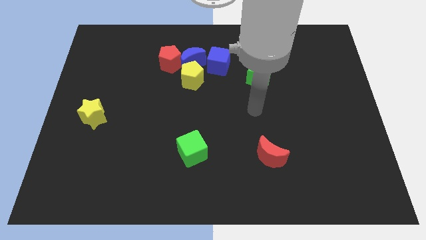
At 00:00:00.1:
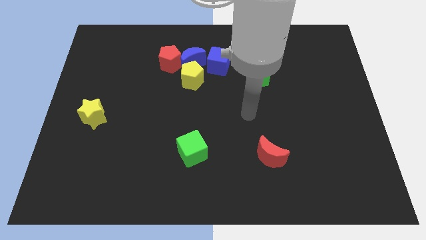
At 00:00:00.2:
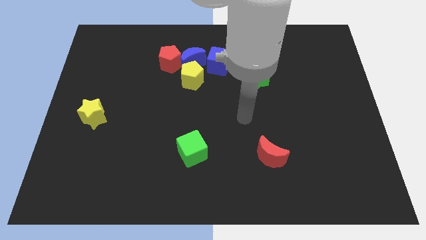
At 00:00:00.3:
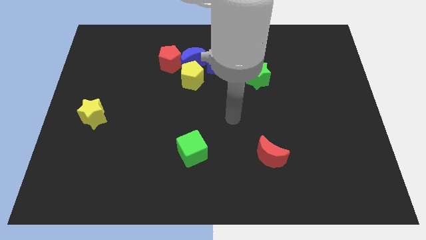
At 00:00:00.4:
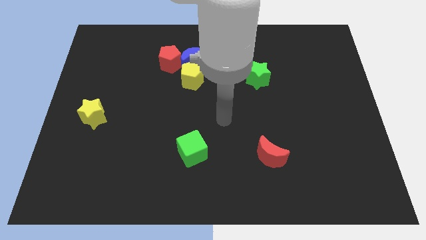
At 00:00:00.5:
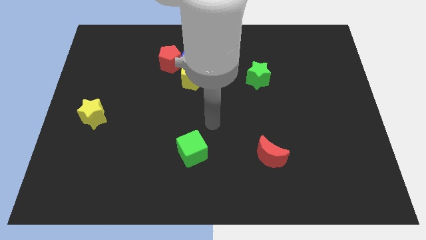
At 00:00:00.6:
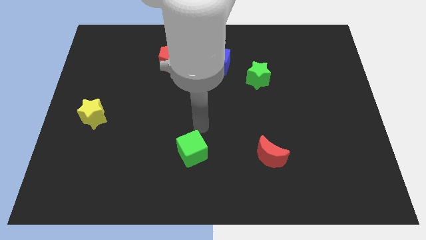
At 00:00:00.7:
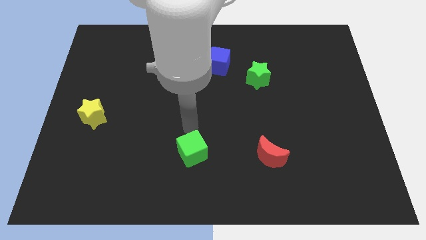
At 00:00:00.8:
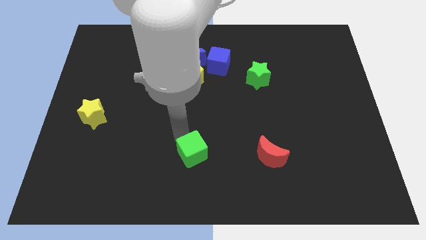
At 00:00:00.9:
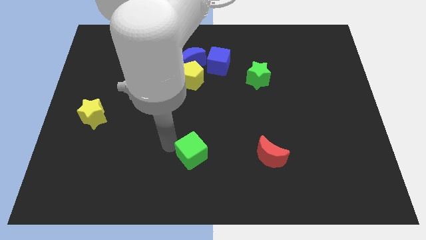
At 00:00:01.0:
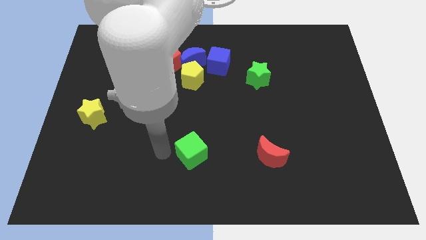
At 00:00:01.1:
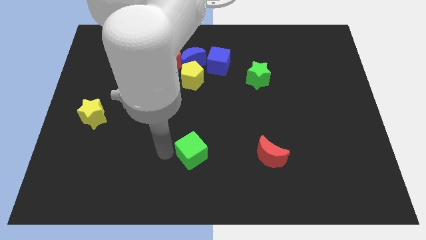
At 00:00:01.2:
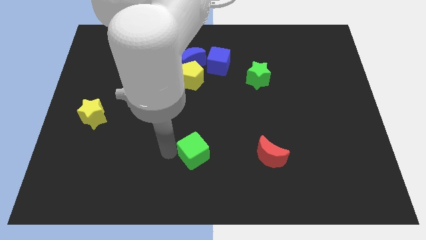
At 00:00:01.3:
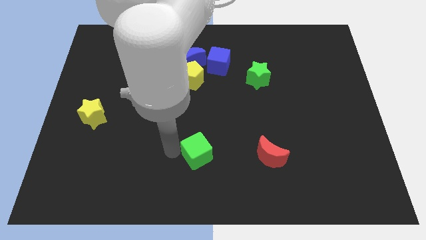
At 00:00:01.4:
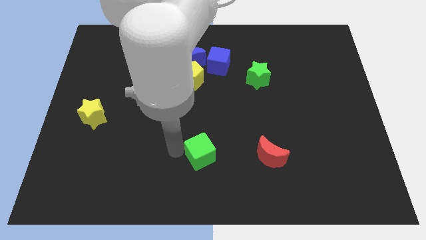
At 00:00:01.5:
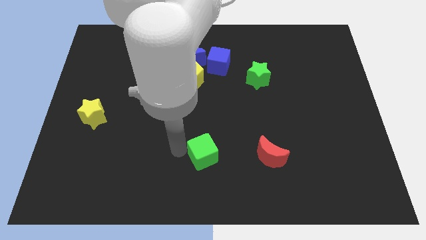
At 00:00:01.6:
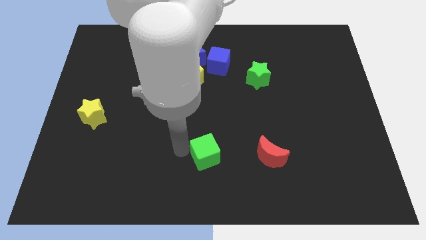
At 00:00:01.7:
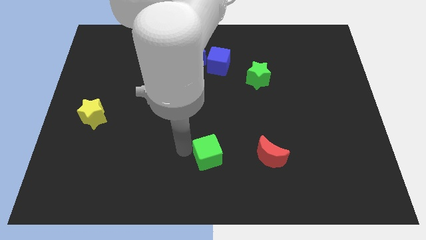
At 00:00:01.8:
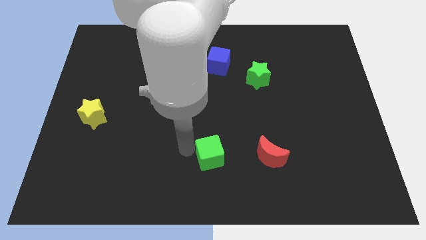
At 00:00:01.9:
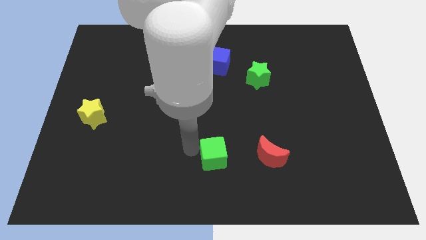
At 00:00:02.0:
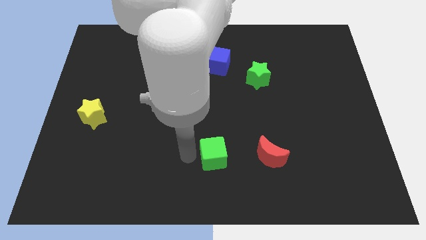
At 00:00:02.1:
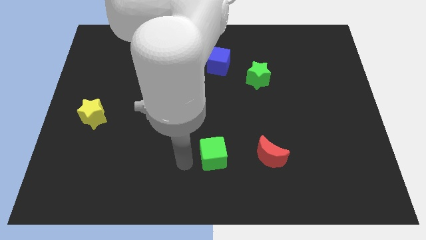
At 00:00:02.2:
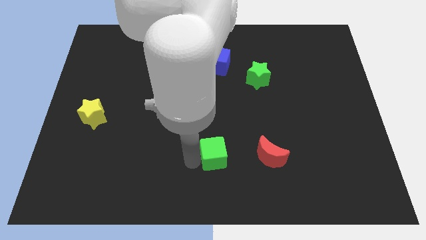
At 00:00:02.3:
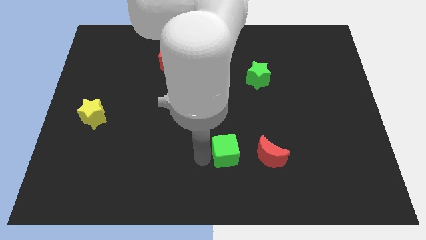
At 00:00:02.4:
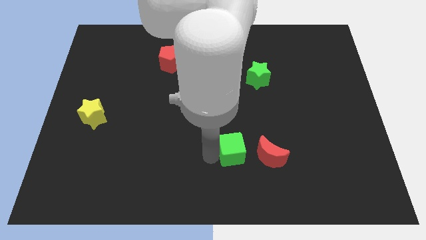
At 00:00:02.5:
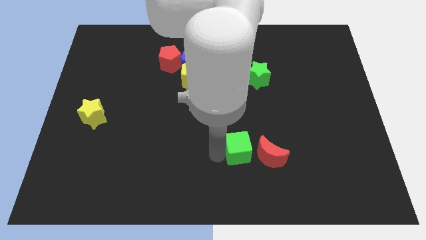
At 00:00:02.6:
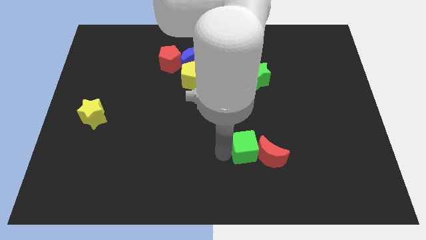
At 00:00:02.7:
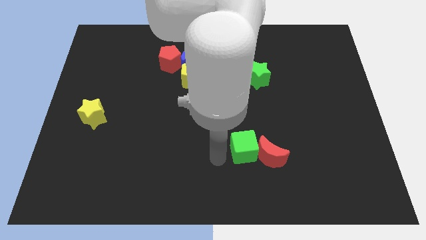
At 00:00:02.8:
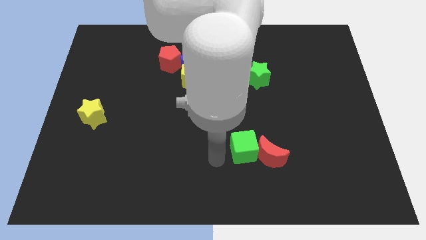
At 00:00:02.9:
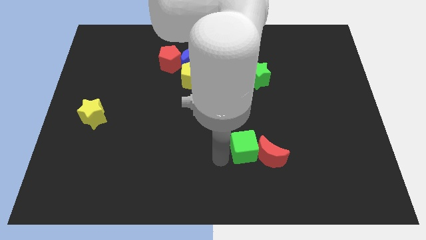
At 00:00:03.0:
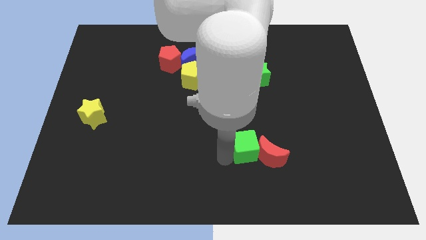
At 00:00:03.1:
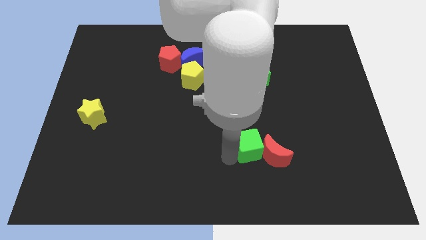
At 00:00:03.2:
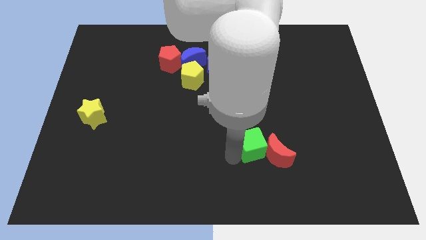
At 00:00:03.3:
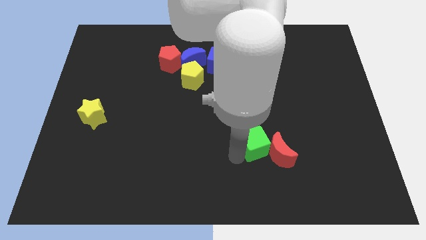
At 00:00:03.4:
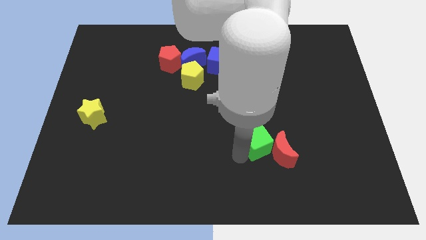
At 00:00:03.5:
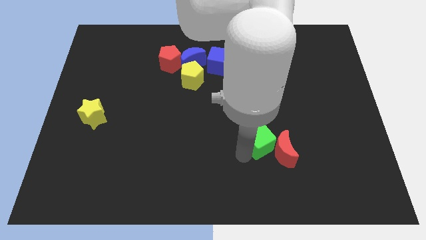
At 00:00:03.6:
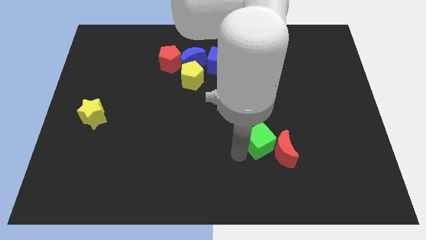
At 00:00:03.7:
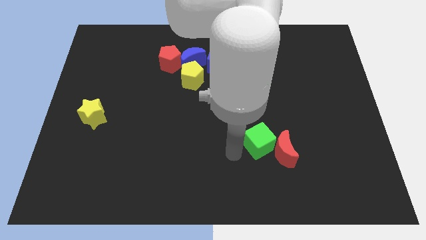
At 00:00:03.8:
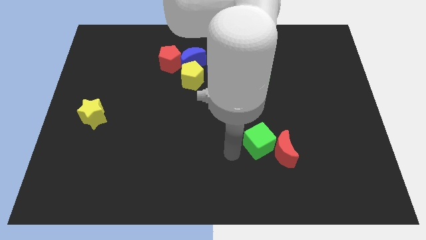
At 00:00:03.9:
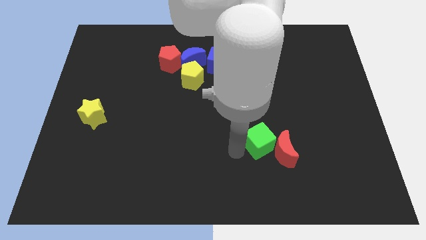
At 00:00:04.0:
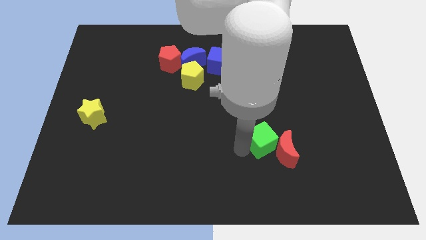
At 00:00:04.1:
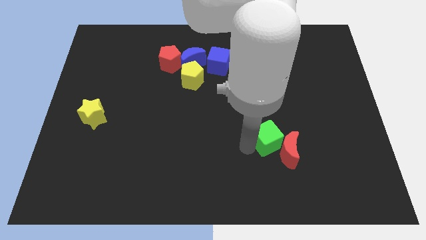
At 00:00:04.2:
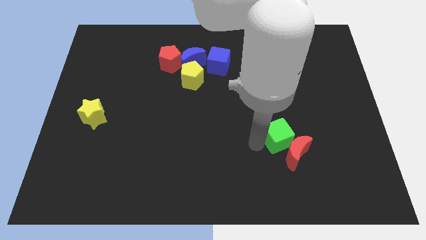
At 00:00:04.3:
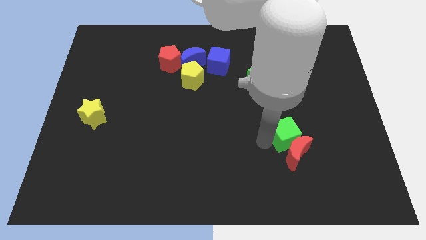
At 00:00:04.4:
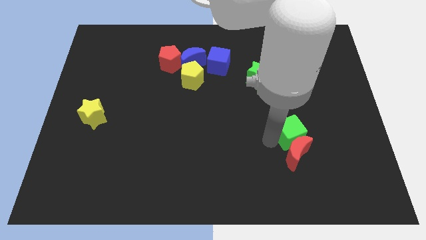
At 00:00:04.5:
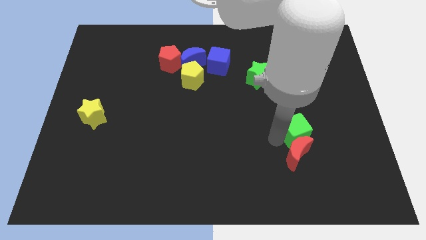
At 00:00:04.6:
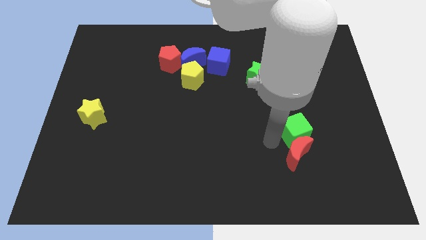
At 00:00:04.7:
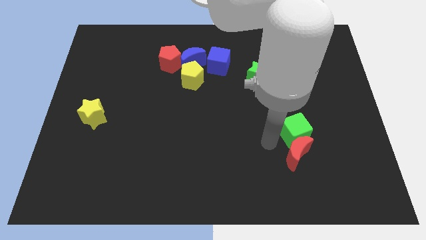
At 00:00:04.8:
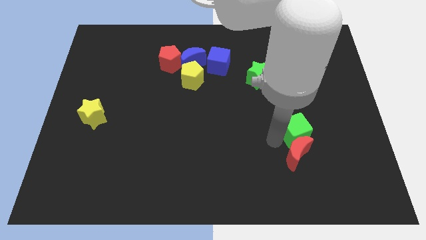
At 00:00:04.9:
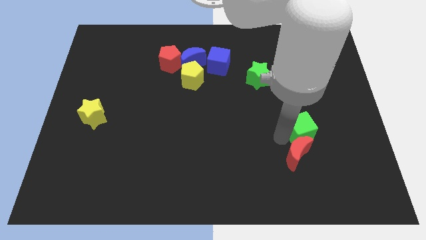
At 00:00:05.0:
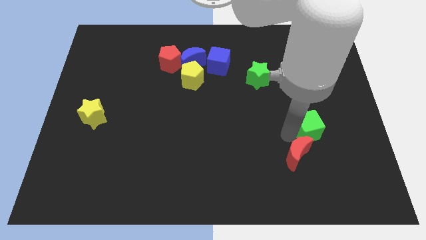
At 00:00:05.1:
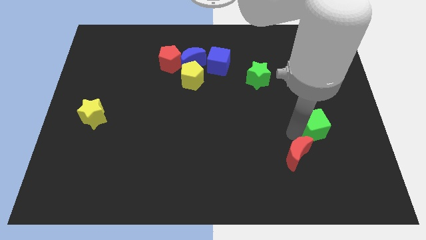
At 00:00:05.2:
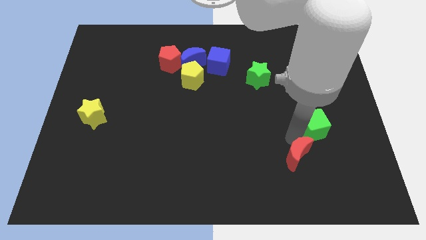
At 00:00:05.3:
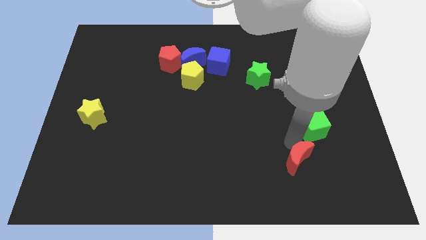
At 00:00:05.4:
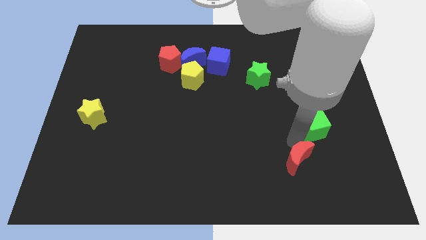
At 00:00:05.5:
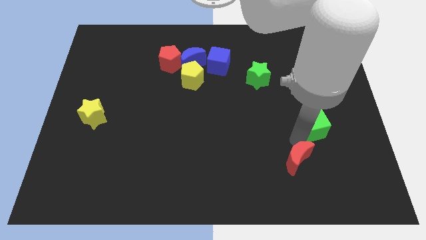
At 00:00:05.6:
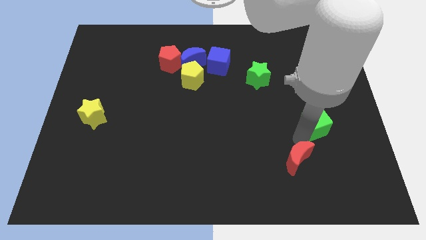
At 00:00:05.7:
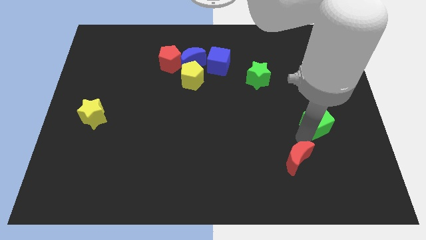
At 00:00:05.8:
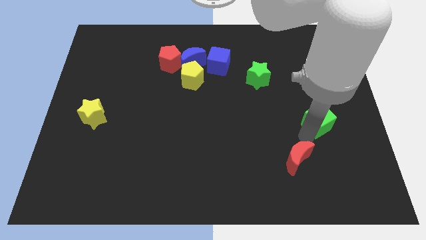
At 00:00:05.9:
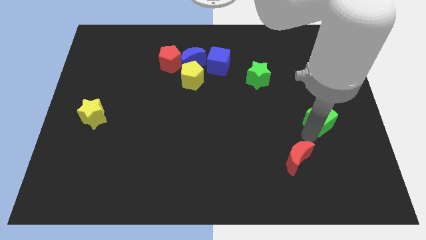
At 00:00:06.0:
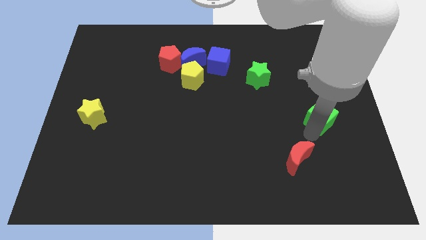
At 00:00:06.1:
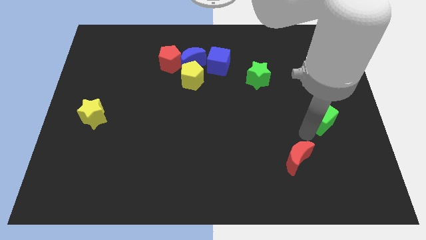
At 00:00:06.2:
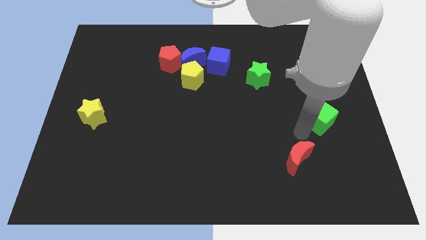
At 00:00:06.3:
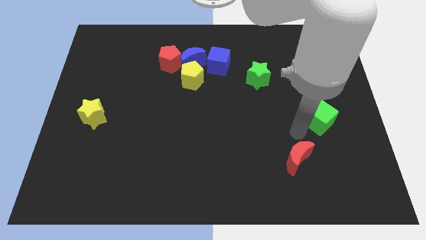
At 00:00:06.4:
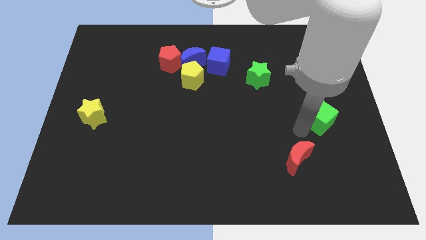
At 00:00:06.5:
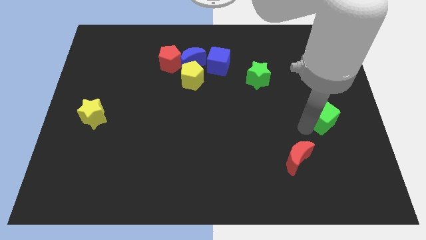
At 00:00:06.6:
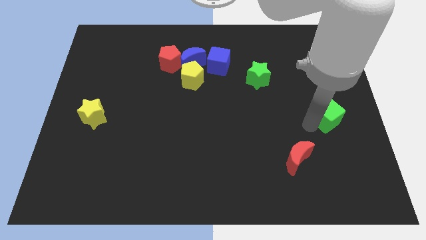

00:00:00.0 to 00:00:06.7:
push the green cube to the right side of the board
